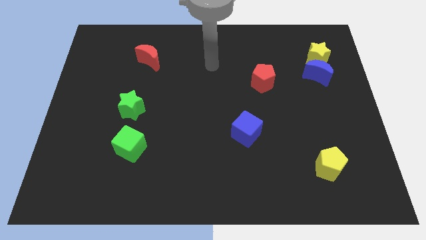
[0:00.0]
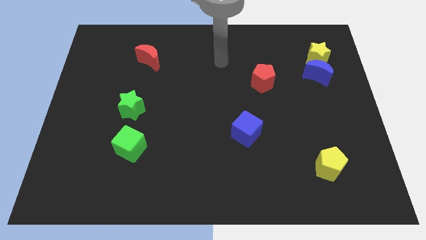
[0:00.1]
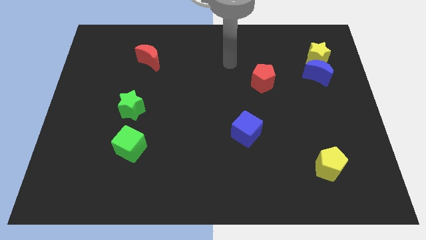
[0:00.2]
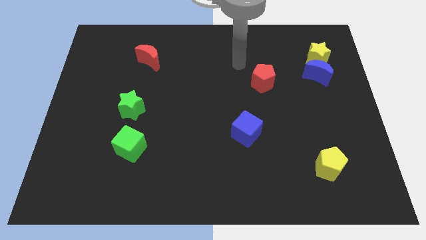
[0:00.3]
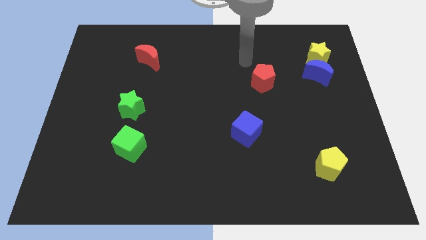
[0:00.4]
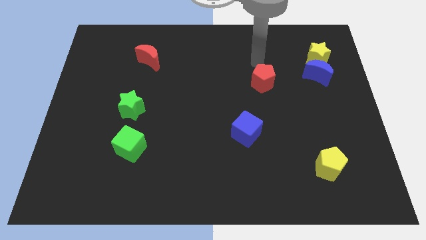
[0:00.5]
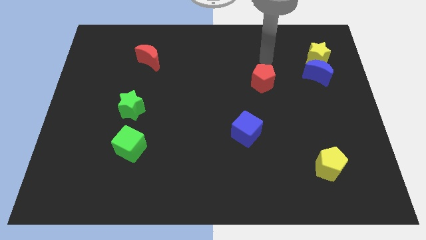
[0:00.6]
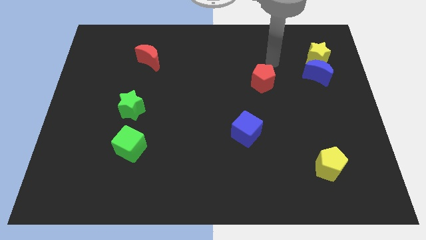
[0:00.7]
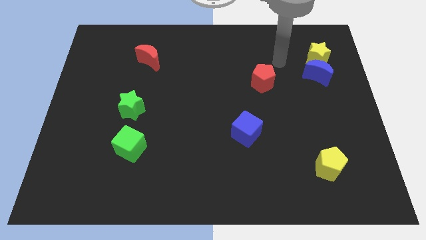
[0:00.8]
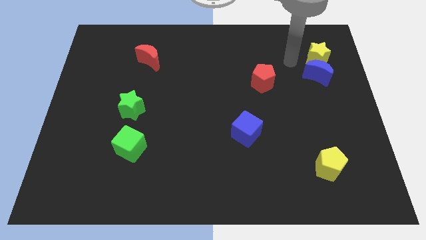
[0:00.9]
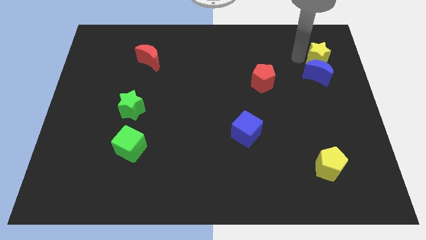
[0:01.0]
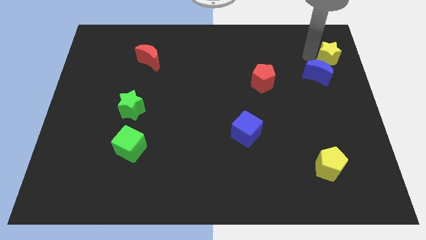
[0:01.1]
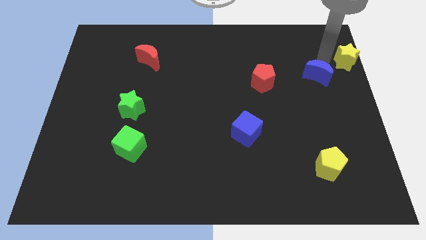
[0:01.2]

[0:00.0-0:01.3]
pull the blue moon apart from the yellow star

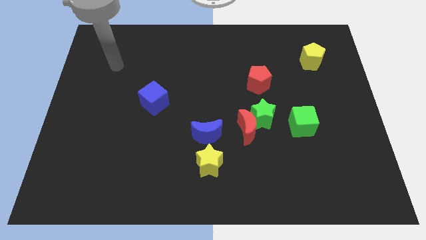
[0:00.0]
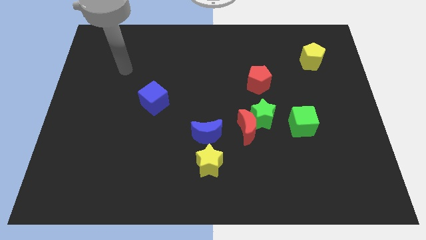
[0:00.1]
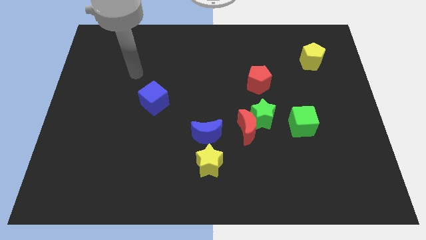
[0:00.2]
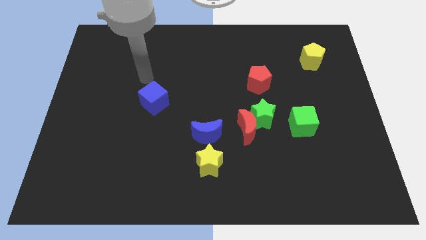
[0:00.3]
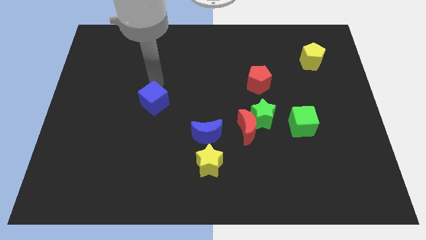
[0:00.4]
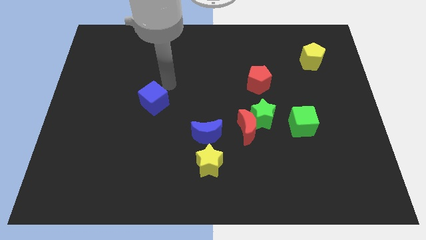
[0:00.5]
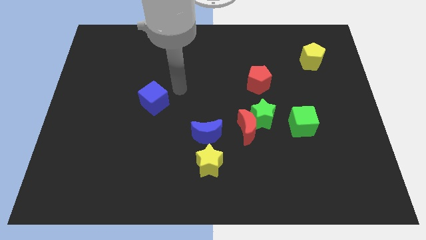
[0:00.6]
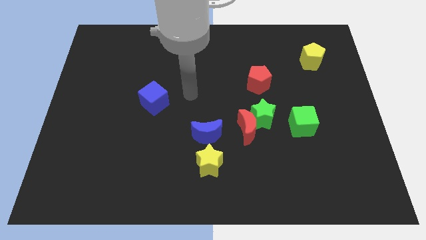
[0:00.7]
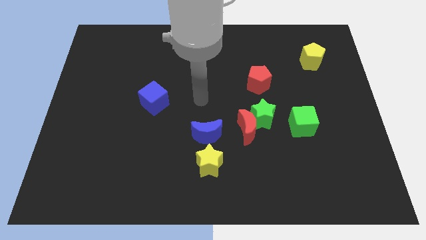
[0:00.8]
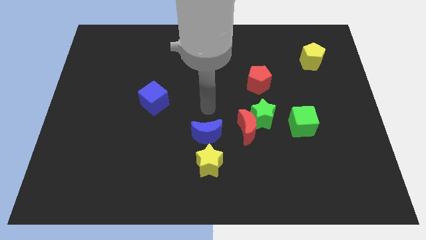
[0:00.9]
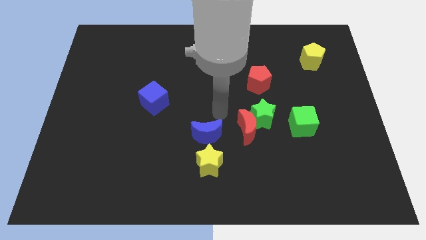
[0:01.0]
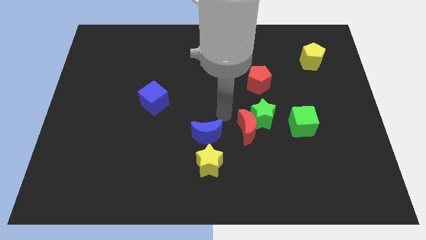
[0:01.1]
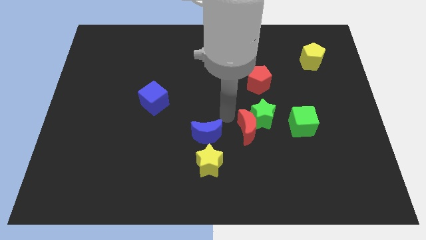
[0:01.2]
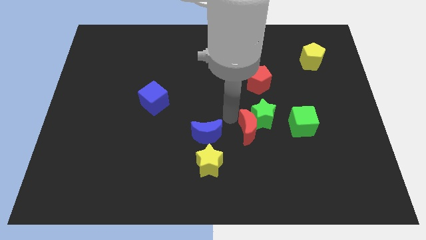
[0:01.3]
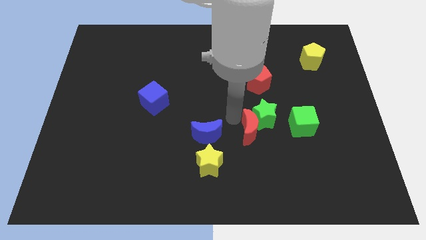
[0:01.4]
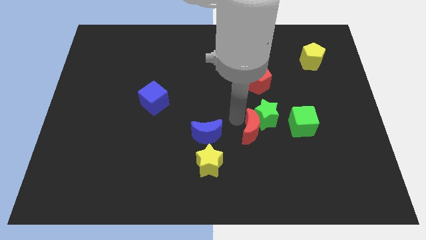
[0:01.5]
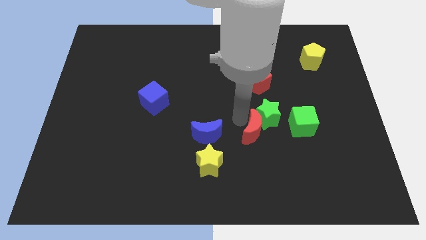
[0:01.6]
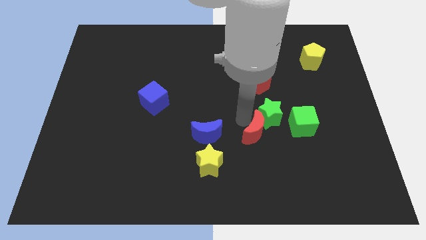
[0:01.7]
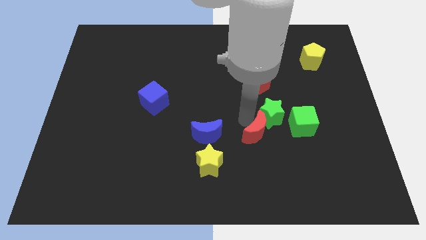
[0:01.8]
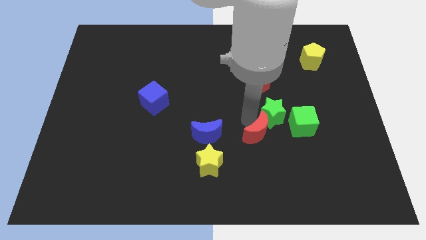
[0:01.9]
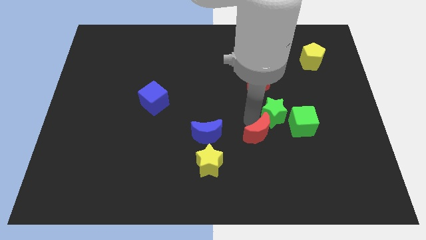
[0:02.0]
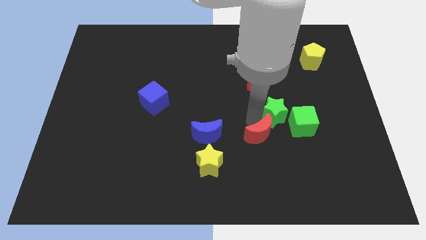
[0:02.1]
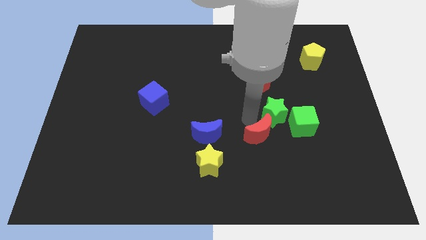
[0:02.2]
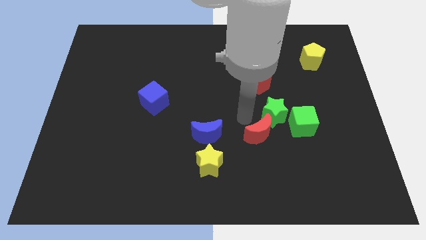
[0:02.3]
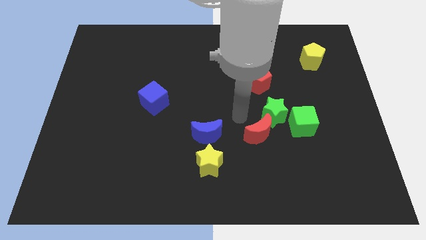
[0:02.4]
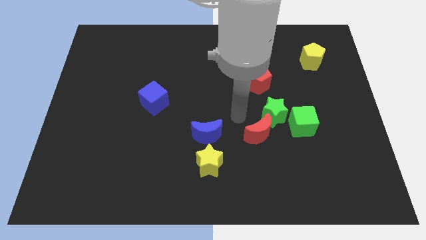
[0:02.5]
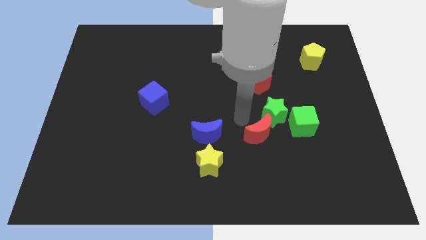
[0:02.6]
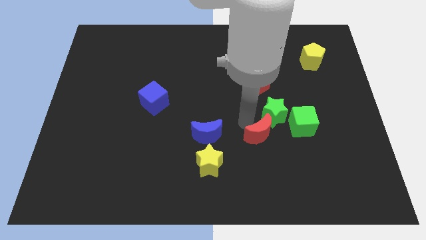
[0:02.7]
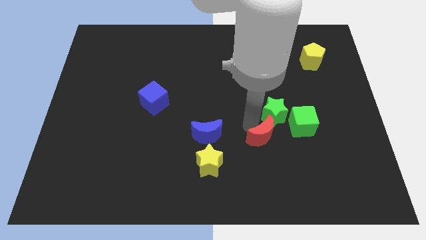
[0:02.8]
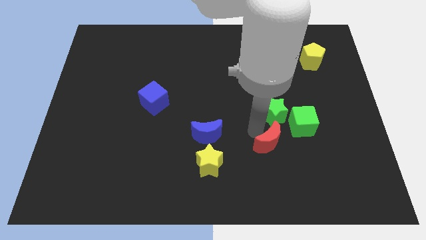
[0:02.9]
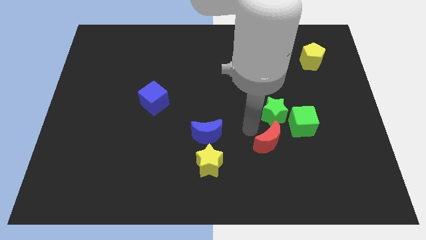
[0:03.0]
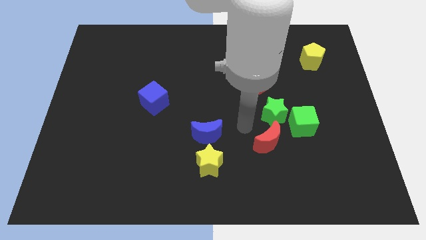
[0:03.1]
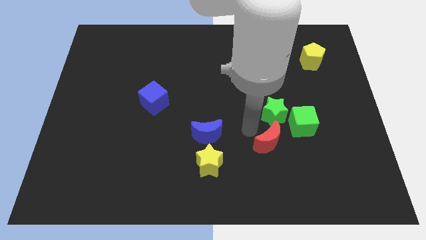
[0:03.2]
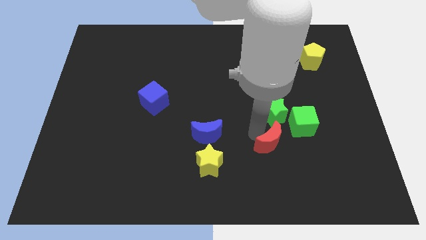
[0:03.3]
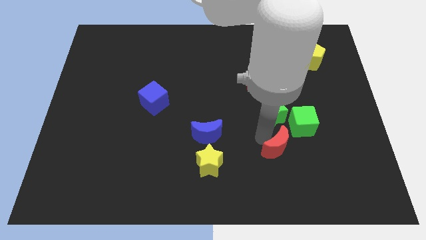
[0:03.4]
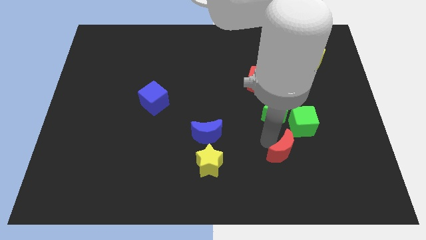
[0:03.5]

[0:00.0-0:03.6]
separate the red moon from the green star and blue moon

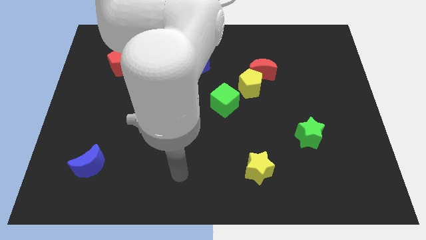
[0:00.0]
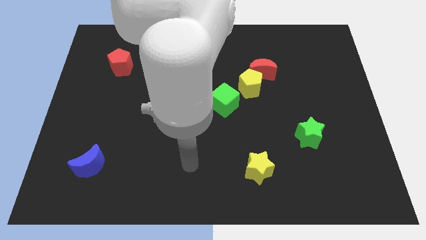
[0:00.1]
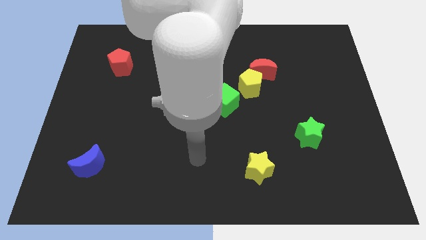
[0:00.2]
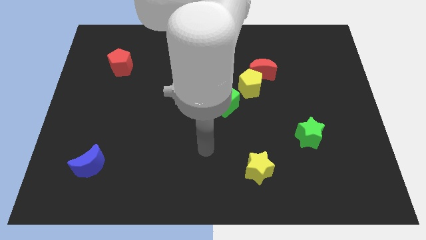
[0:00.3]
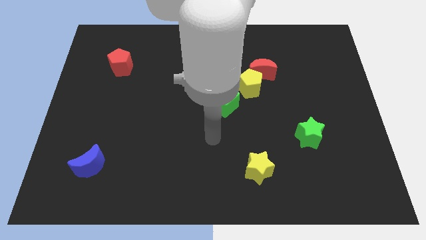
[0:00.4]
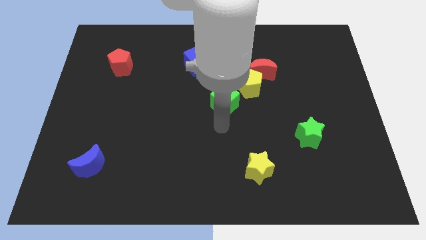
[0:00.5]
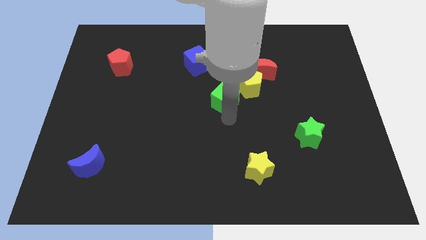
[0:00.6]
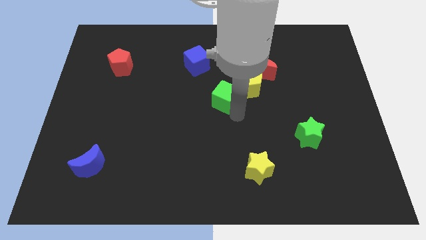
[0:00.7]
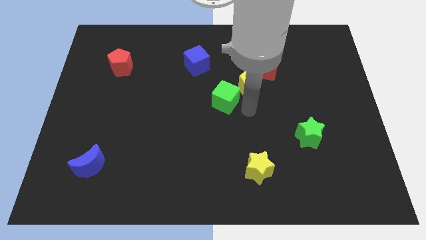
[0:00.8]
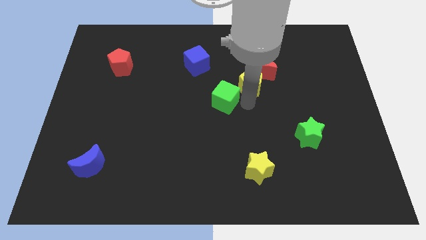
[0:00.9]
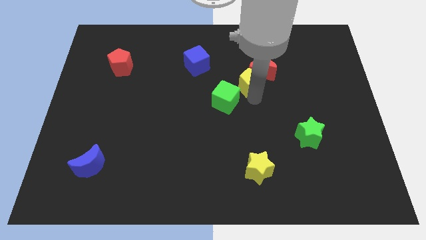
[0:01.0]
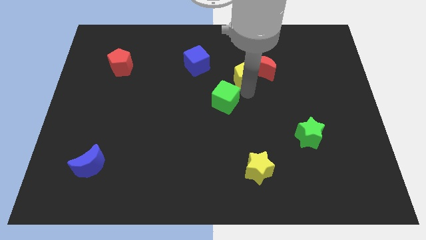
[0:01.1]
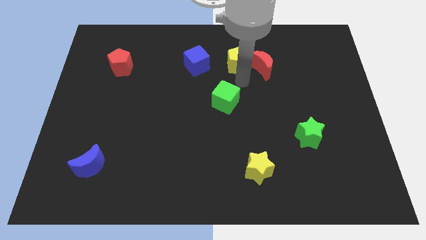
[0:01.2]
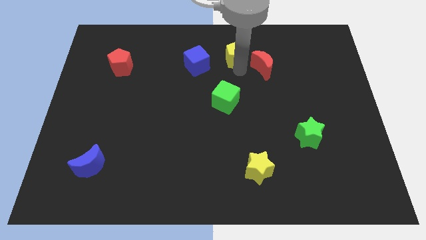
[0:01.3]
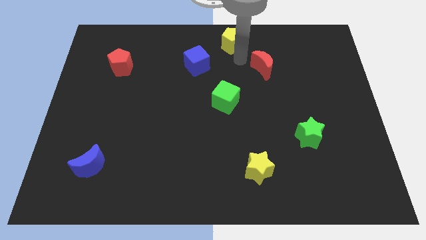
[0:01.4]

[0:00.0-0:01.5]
pull the red moon apart from the yellow pentagon

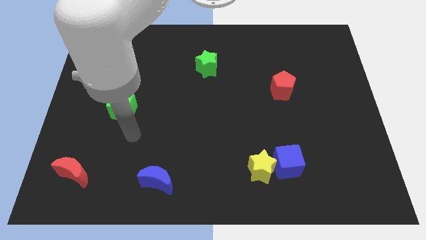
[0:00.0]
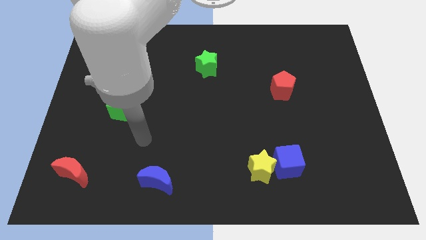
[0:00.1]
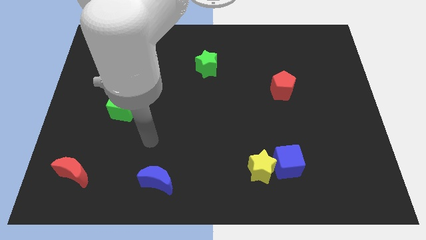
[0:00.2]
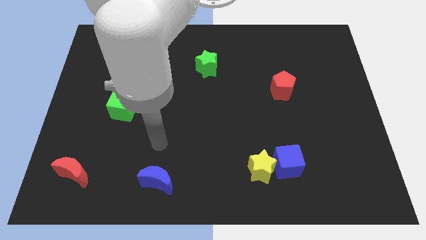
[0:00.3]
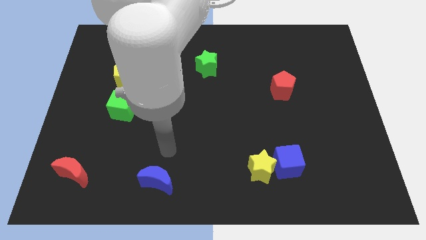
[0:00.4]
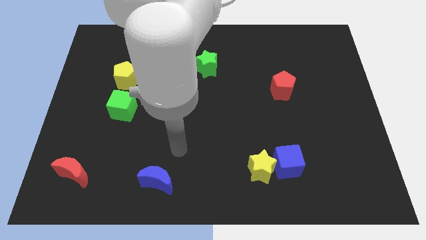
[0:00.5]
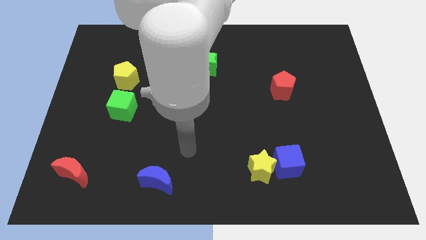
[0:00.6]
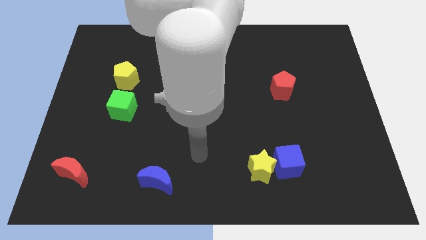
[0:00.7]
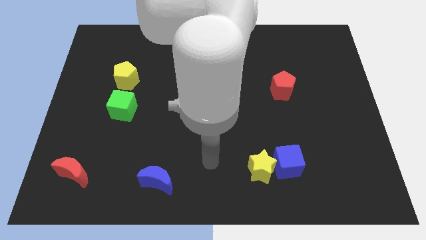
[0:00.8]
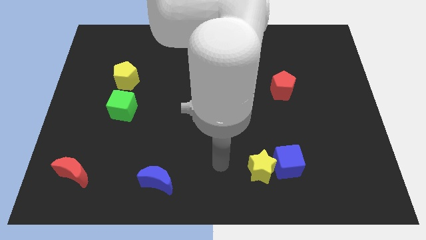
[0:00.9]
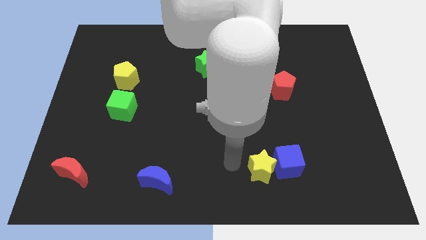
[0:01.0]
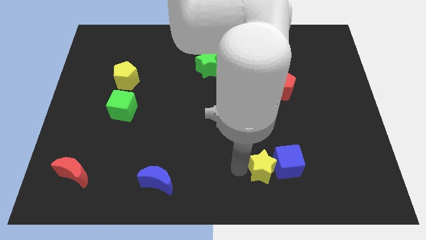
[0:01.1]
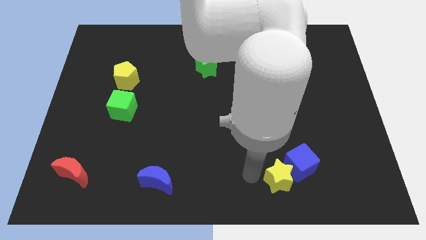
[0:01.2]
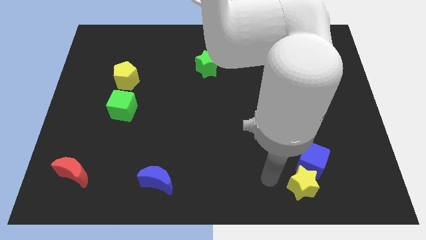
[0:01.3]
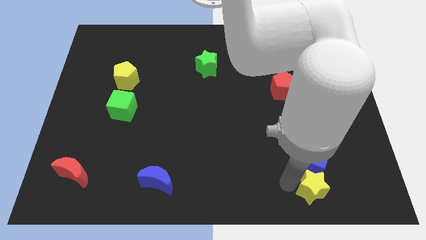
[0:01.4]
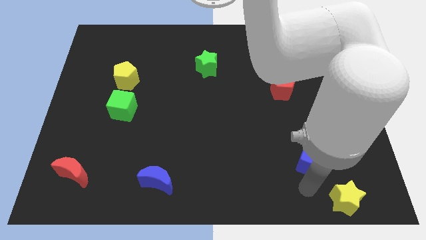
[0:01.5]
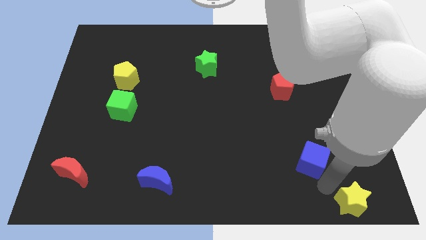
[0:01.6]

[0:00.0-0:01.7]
pull the blue cube apart from the yellow star

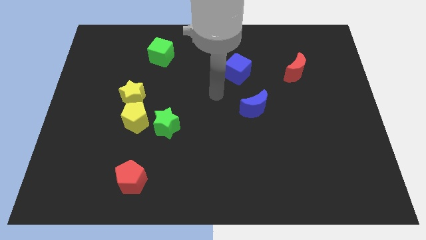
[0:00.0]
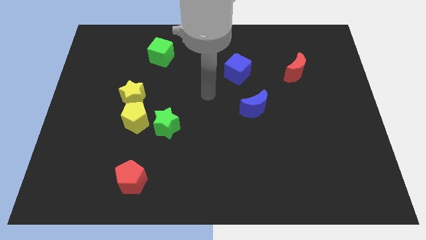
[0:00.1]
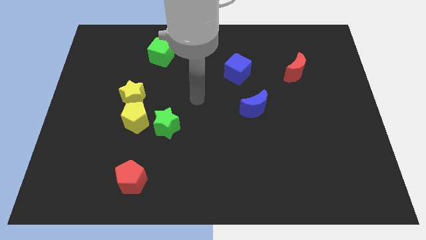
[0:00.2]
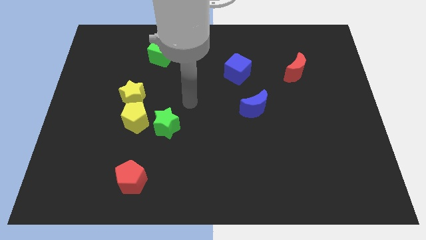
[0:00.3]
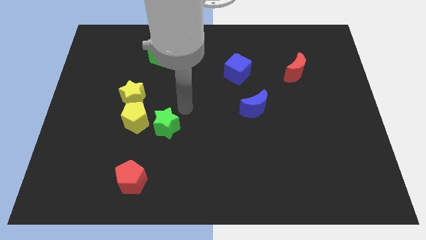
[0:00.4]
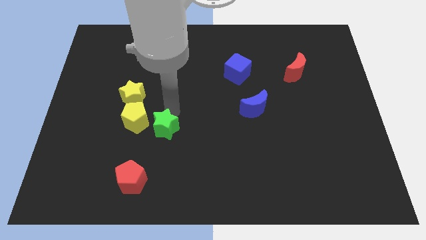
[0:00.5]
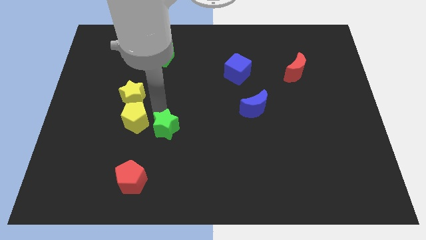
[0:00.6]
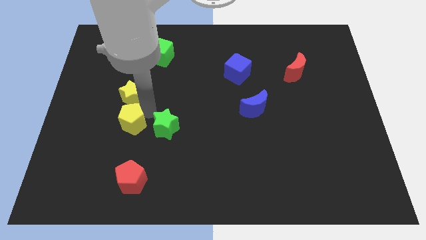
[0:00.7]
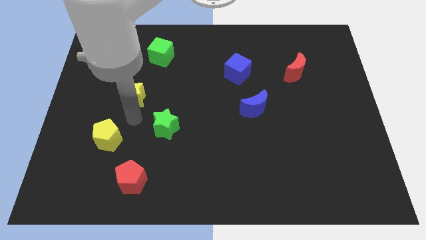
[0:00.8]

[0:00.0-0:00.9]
pull the yellow star apart from the yellow pentagon

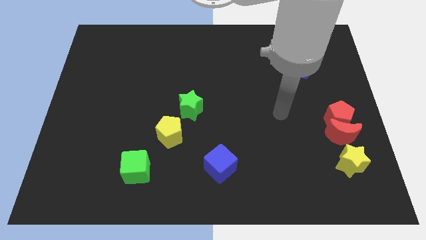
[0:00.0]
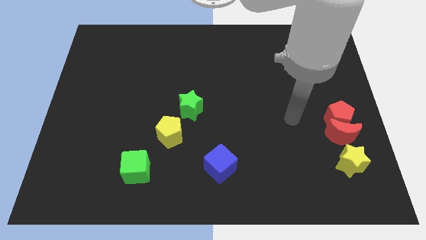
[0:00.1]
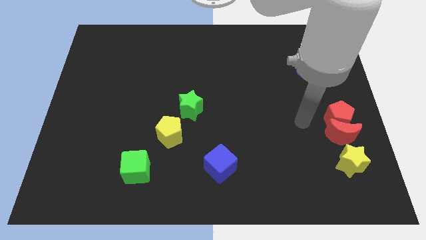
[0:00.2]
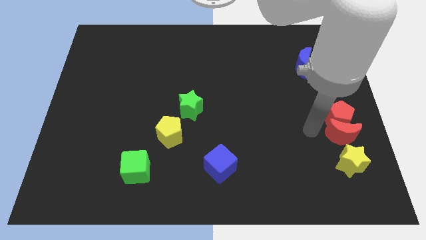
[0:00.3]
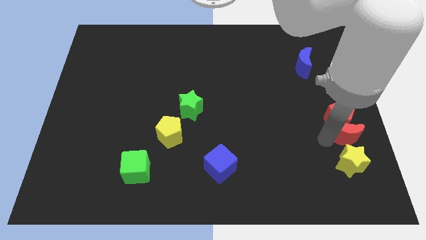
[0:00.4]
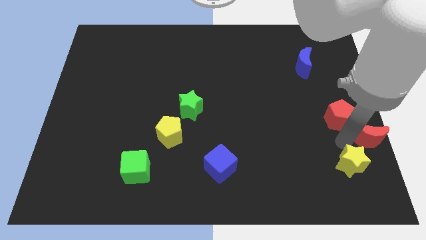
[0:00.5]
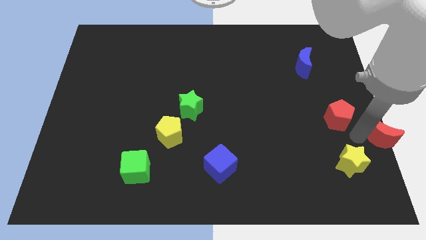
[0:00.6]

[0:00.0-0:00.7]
pull the red pentagon apart from the red moon
